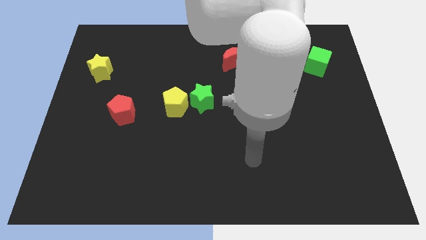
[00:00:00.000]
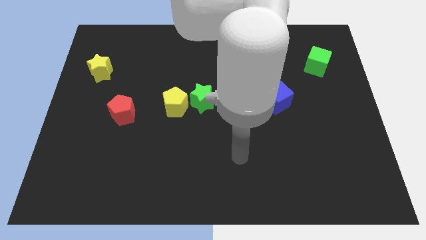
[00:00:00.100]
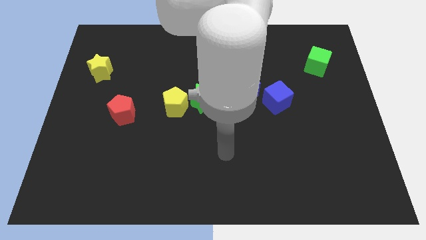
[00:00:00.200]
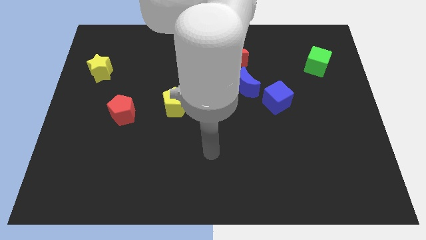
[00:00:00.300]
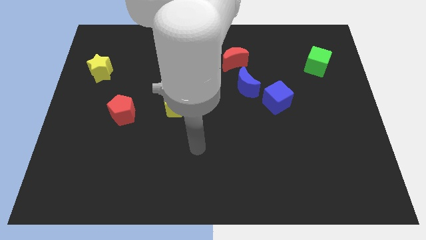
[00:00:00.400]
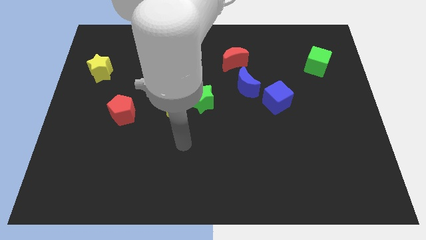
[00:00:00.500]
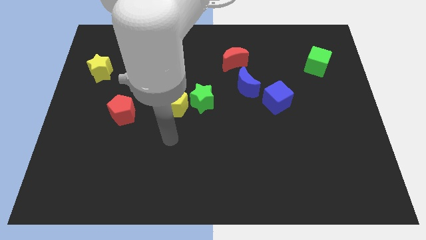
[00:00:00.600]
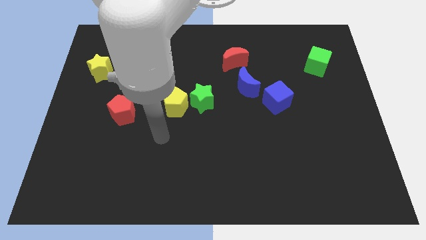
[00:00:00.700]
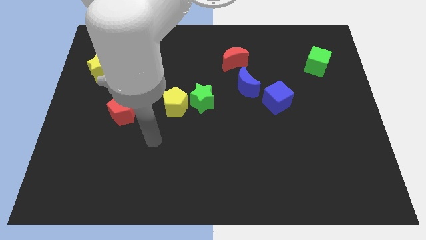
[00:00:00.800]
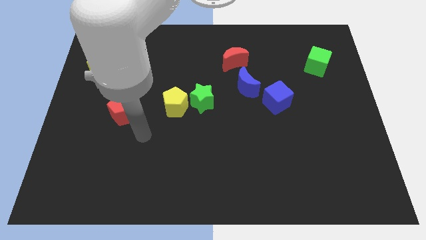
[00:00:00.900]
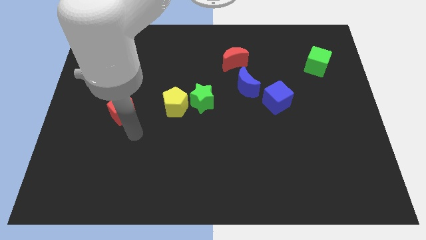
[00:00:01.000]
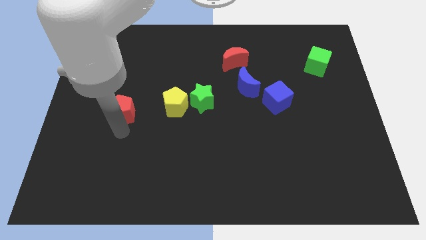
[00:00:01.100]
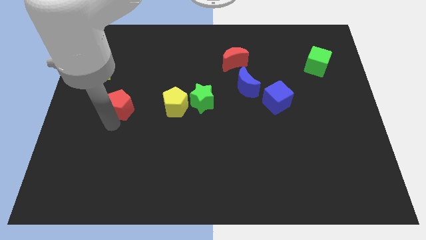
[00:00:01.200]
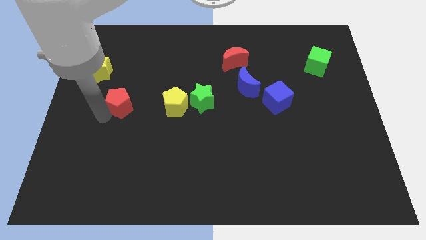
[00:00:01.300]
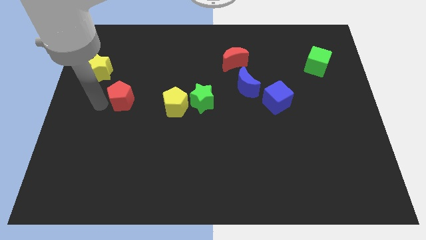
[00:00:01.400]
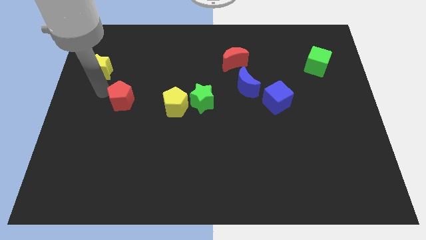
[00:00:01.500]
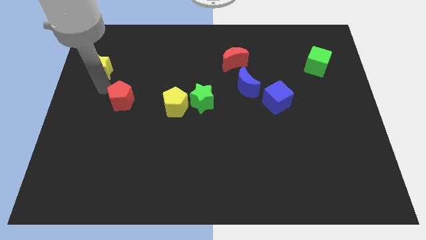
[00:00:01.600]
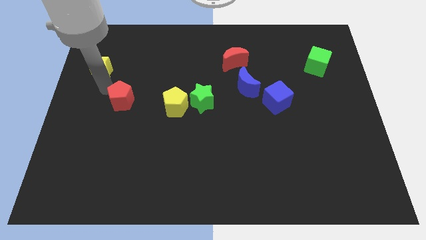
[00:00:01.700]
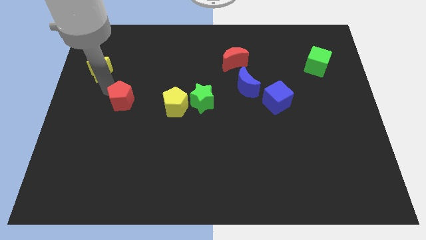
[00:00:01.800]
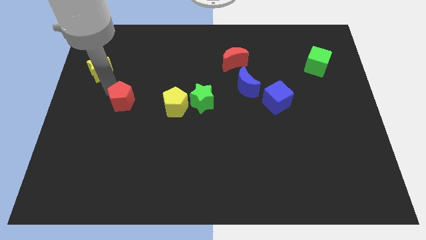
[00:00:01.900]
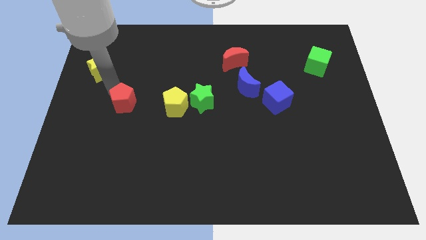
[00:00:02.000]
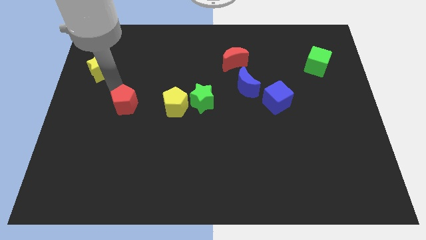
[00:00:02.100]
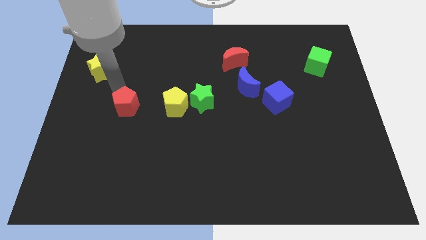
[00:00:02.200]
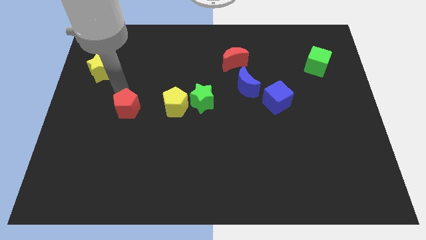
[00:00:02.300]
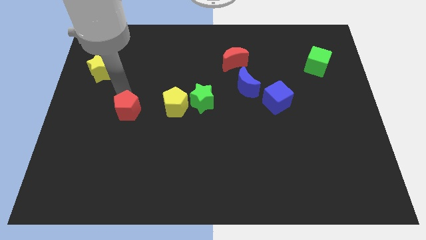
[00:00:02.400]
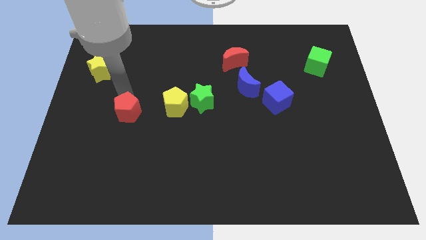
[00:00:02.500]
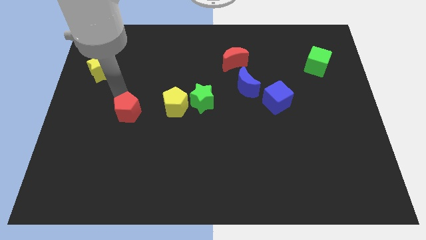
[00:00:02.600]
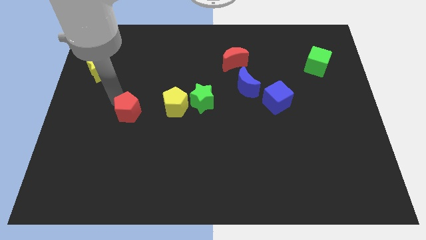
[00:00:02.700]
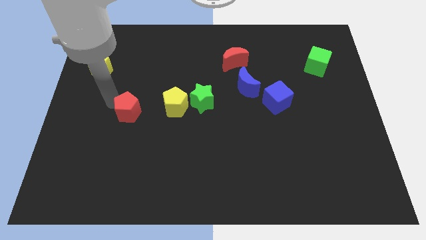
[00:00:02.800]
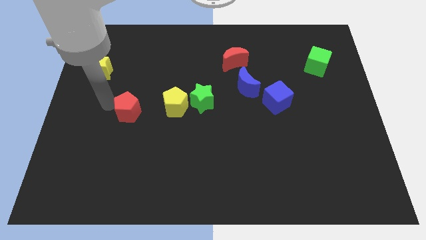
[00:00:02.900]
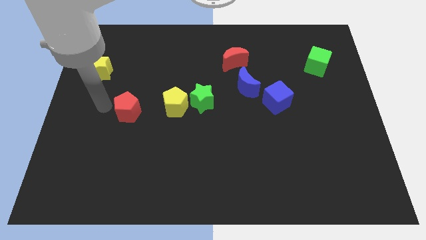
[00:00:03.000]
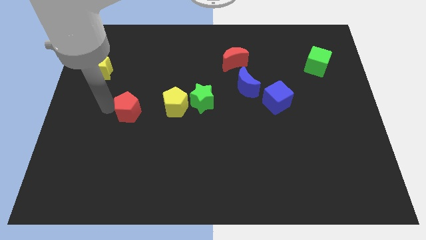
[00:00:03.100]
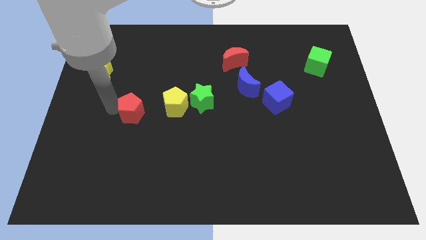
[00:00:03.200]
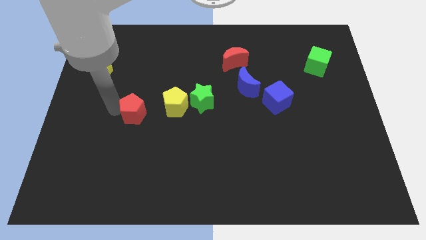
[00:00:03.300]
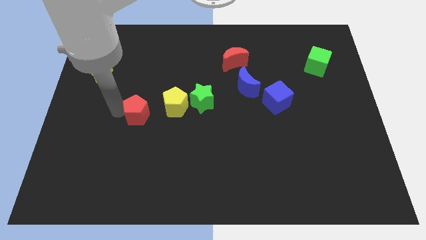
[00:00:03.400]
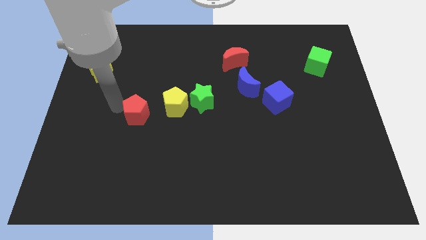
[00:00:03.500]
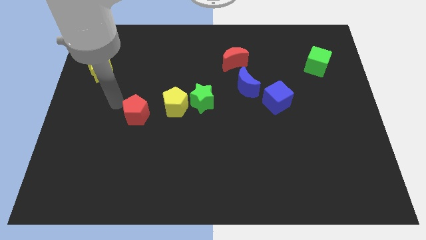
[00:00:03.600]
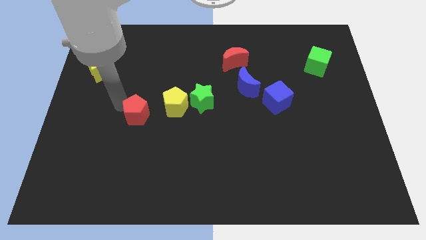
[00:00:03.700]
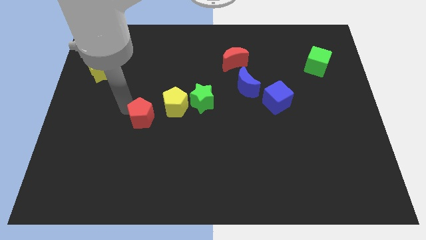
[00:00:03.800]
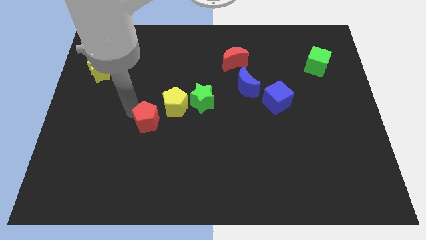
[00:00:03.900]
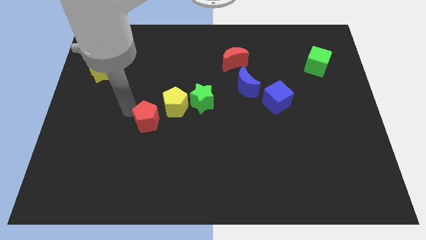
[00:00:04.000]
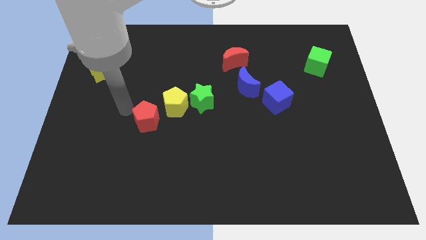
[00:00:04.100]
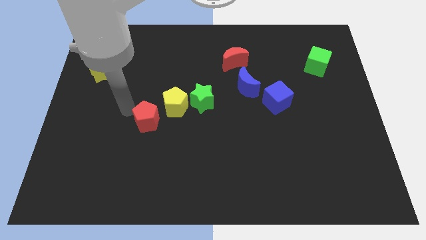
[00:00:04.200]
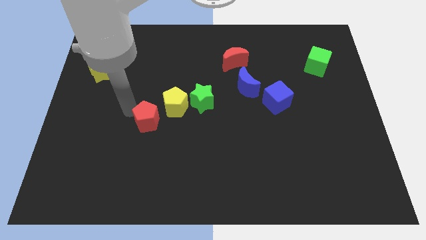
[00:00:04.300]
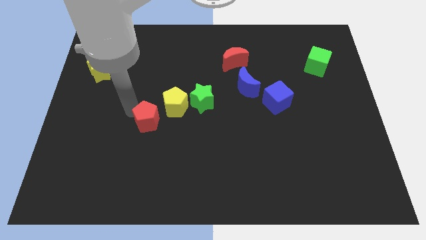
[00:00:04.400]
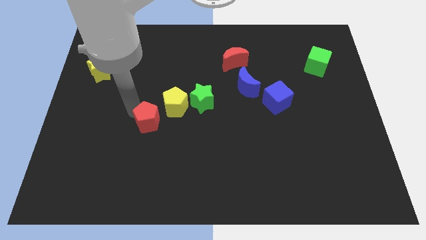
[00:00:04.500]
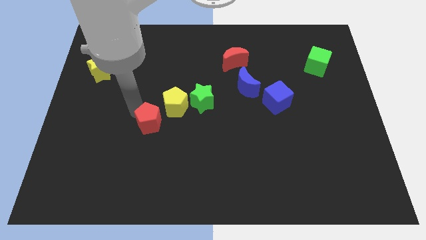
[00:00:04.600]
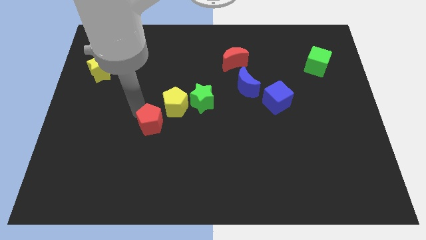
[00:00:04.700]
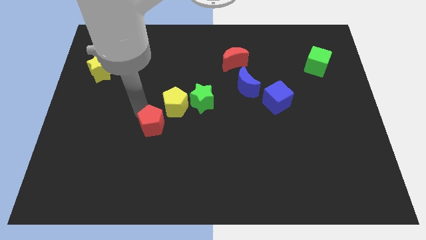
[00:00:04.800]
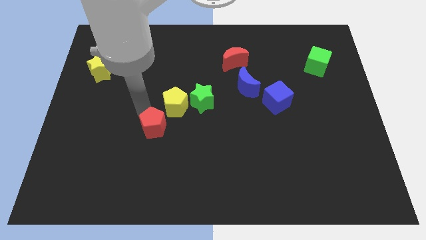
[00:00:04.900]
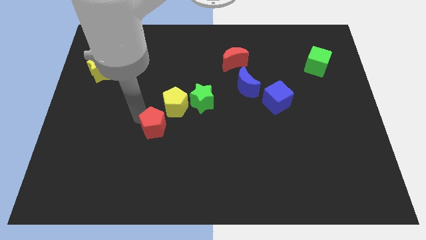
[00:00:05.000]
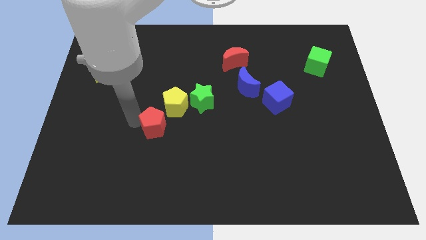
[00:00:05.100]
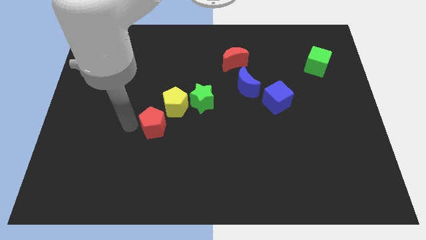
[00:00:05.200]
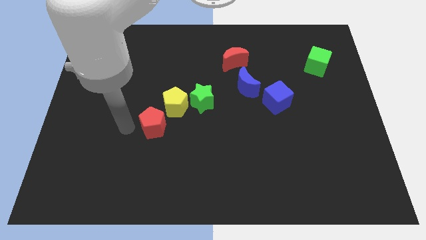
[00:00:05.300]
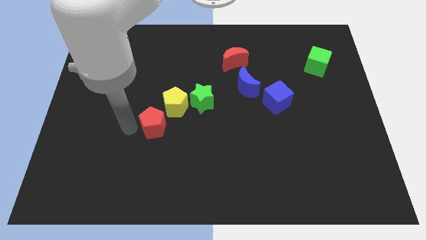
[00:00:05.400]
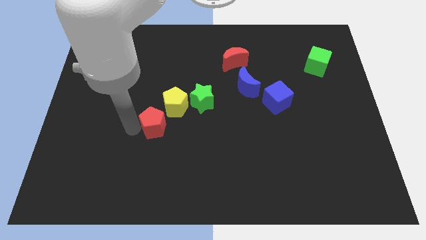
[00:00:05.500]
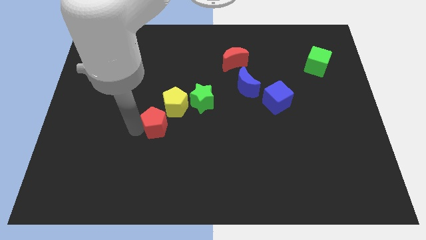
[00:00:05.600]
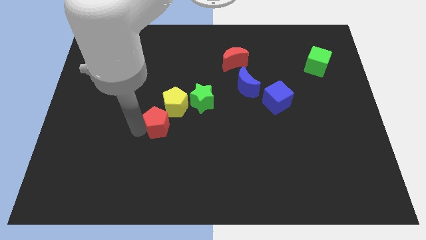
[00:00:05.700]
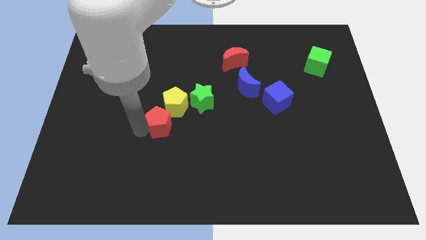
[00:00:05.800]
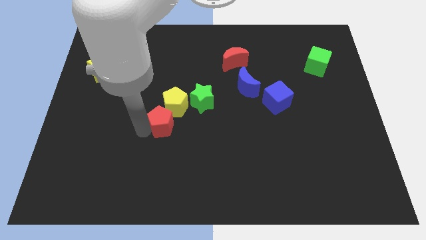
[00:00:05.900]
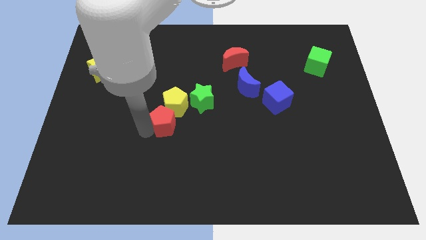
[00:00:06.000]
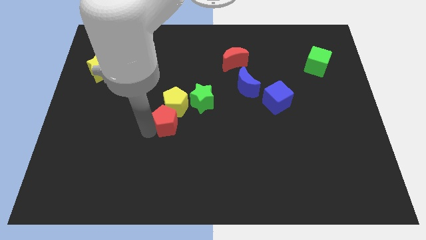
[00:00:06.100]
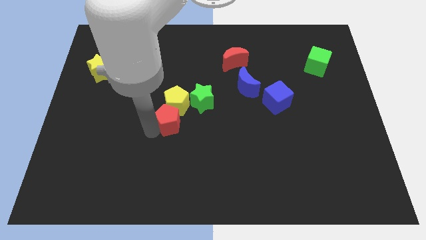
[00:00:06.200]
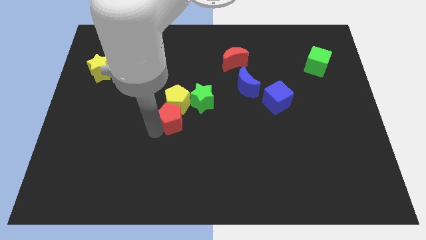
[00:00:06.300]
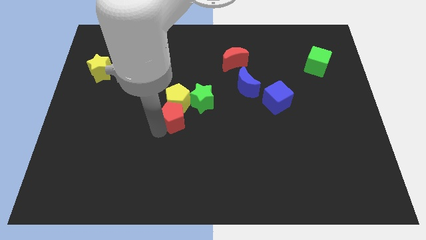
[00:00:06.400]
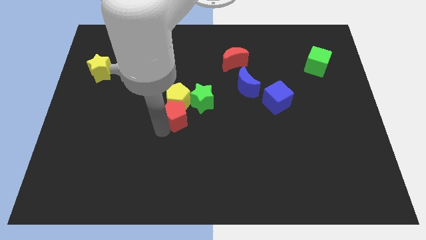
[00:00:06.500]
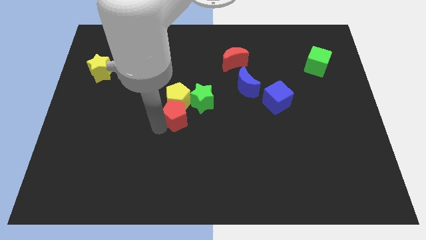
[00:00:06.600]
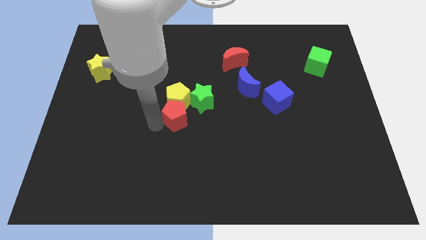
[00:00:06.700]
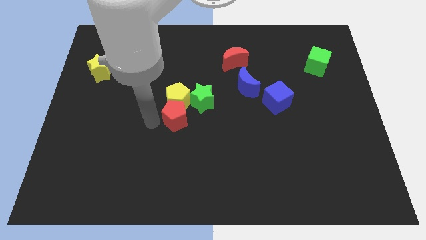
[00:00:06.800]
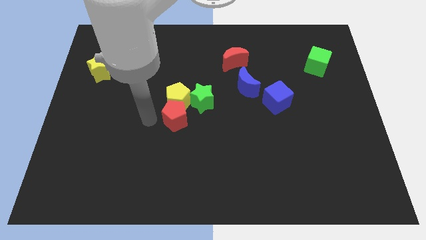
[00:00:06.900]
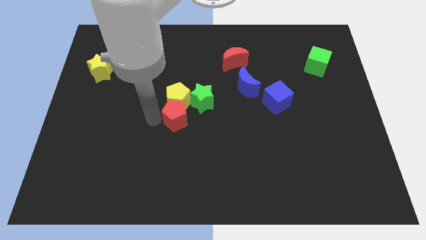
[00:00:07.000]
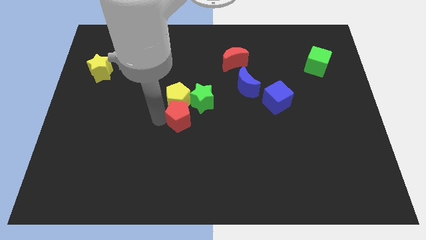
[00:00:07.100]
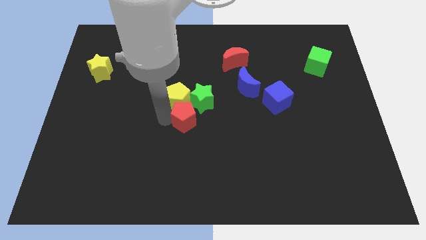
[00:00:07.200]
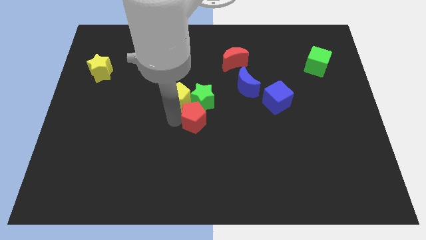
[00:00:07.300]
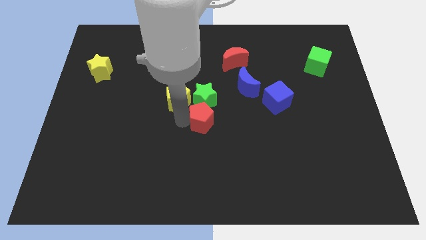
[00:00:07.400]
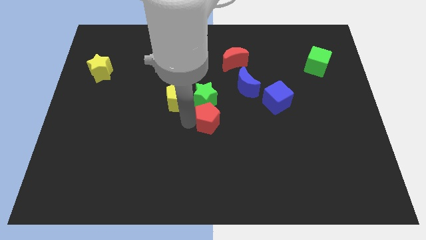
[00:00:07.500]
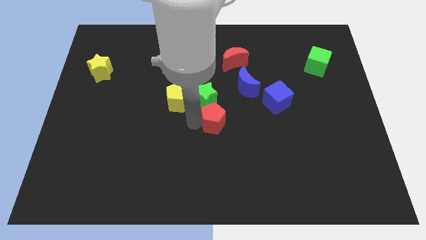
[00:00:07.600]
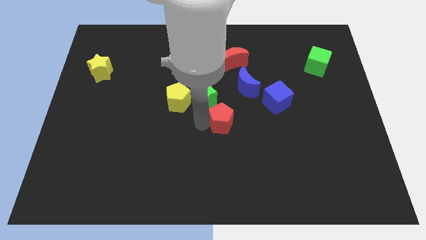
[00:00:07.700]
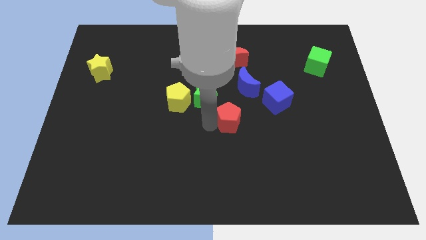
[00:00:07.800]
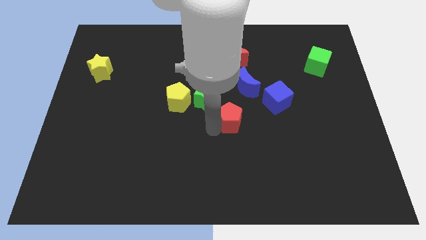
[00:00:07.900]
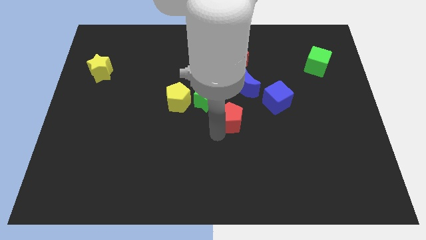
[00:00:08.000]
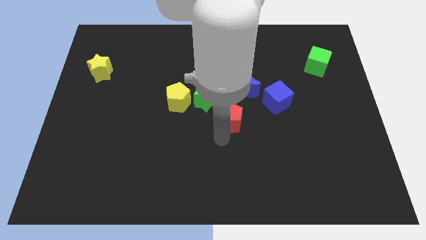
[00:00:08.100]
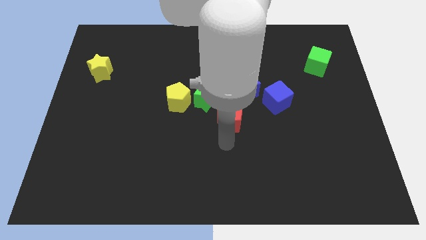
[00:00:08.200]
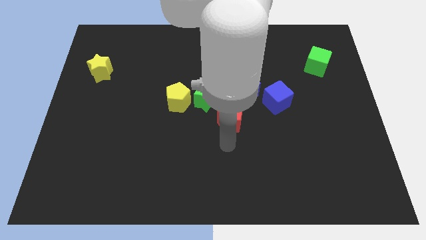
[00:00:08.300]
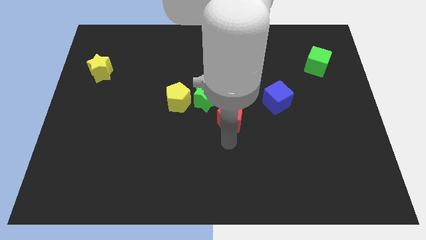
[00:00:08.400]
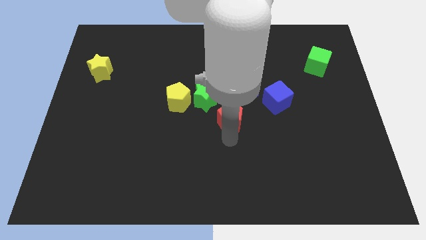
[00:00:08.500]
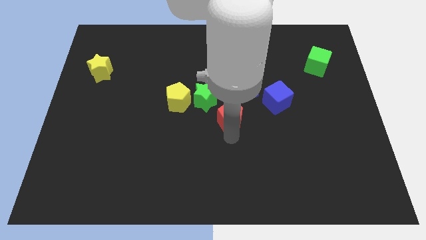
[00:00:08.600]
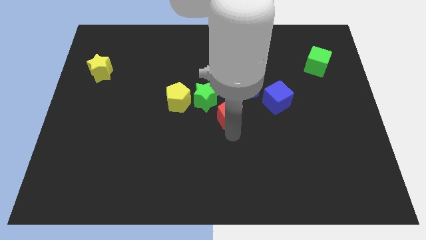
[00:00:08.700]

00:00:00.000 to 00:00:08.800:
push the red pentagon left of the blue cube
